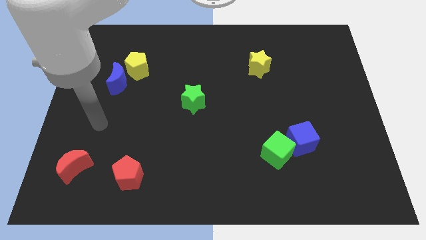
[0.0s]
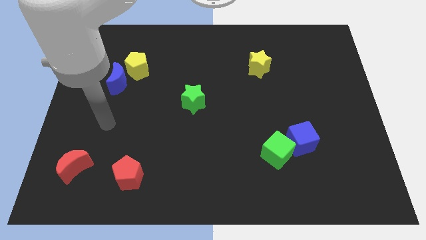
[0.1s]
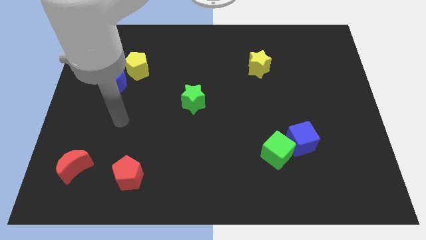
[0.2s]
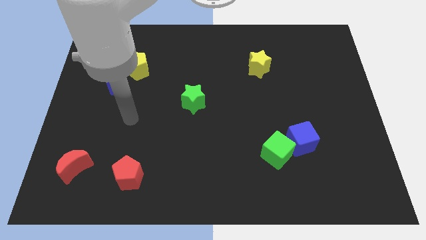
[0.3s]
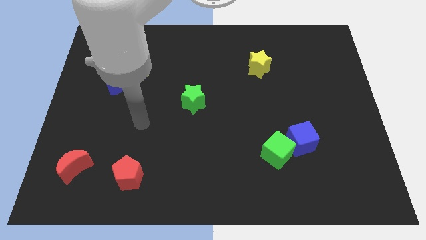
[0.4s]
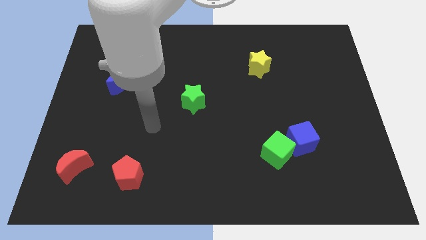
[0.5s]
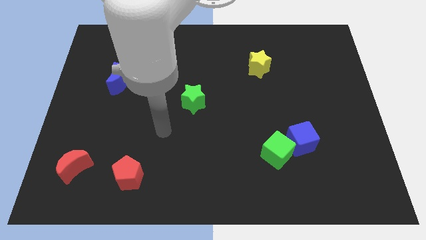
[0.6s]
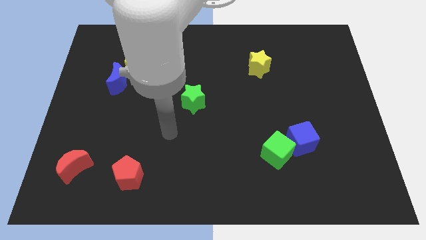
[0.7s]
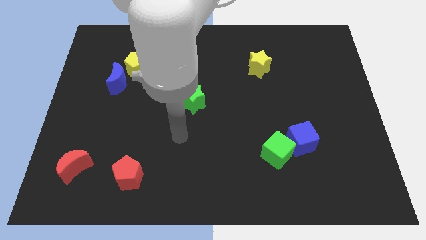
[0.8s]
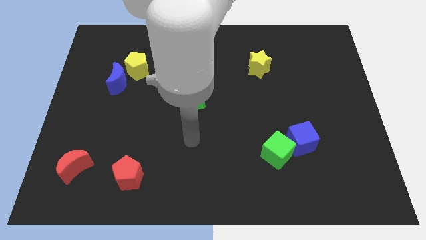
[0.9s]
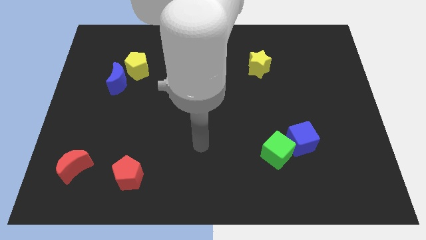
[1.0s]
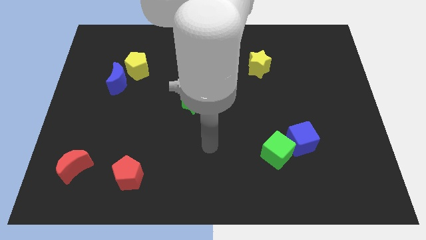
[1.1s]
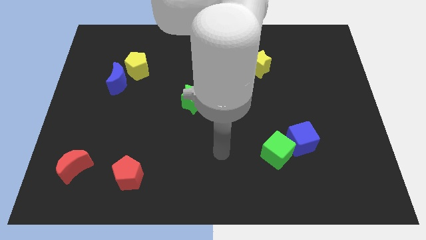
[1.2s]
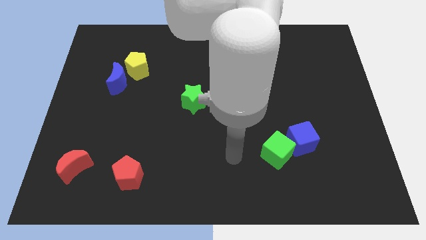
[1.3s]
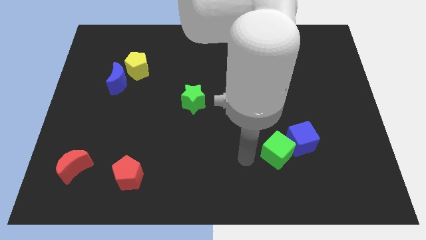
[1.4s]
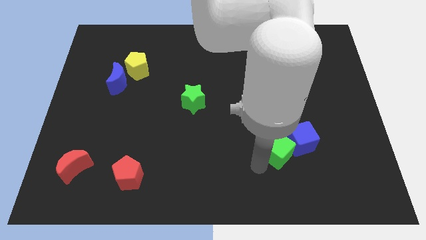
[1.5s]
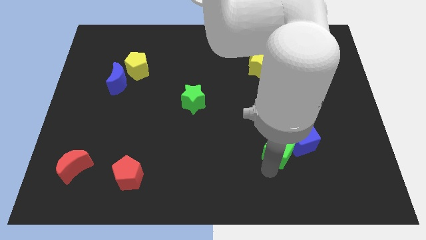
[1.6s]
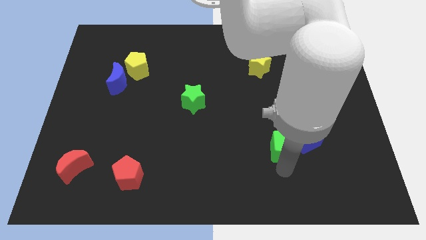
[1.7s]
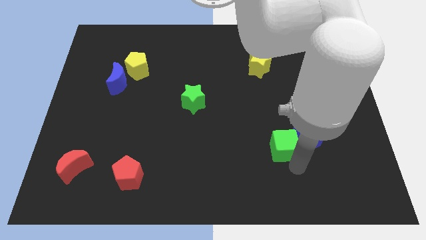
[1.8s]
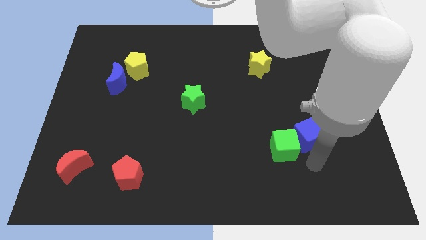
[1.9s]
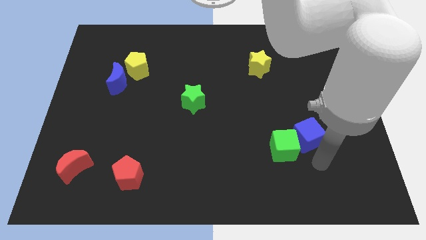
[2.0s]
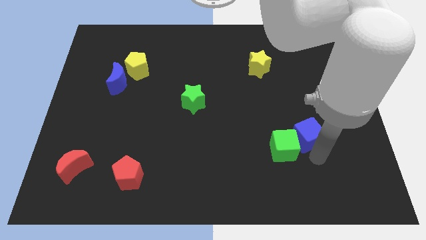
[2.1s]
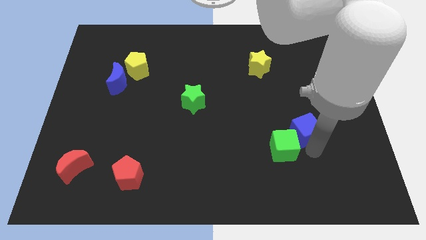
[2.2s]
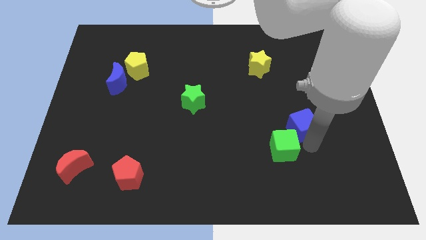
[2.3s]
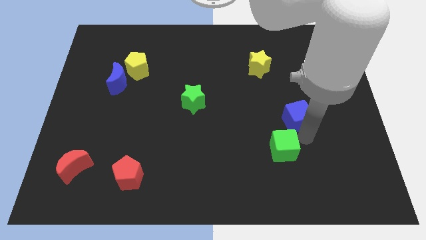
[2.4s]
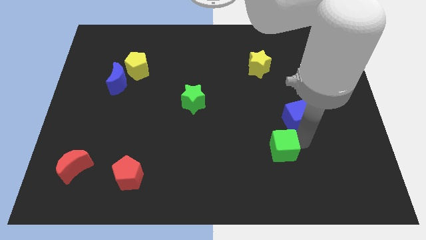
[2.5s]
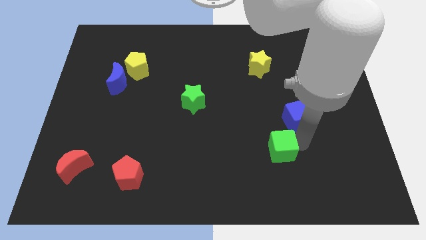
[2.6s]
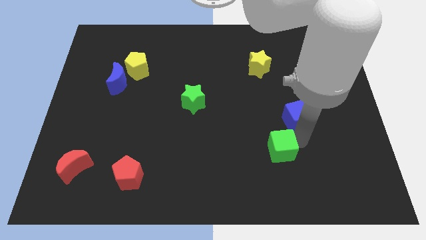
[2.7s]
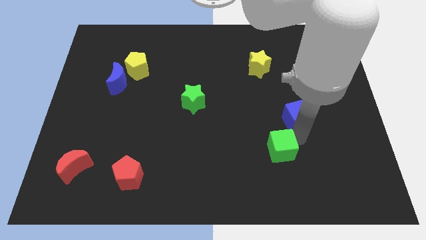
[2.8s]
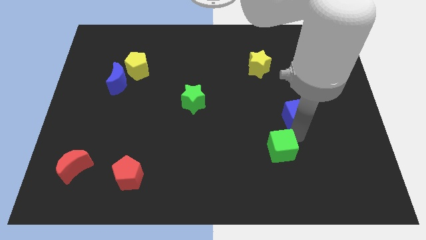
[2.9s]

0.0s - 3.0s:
move the blue cube up slightly

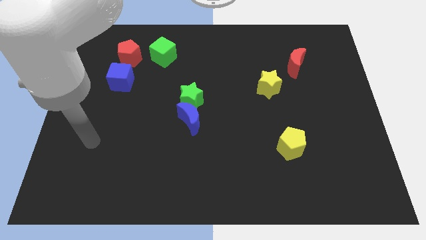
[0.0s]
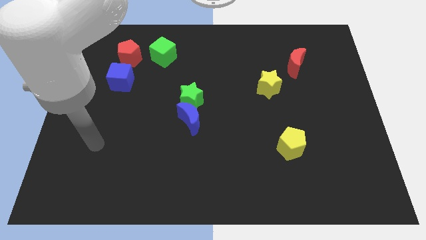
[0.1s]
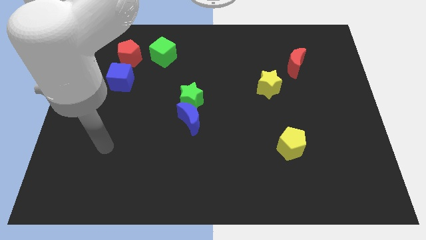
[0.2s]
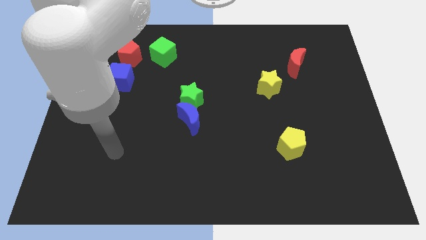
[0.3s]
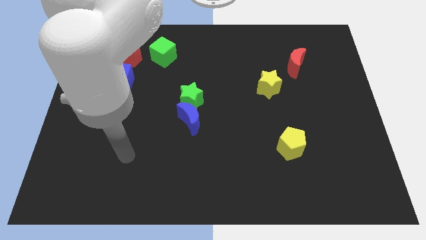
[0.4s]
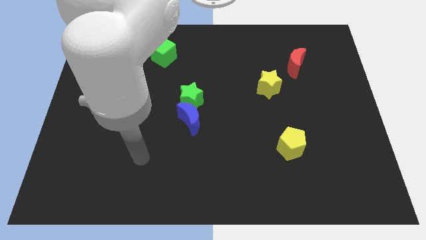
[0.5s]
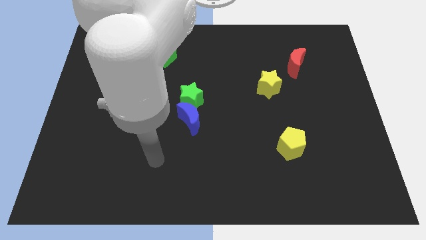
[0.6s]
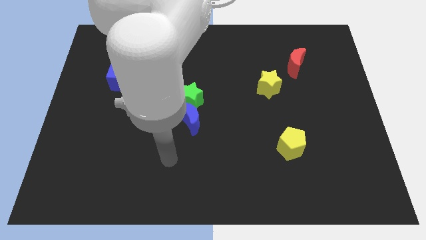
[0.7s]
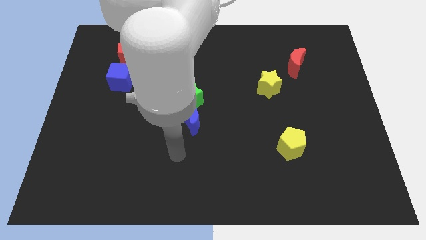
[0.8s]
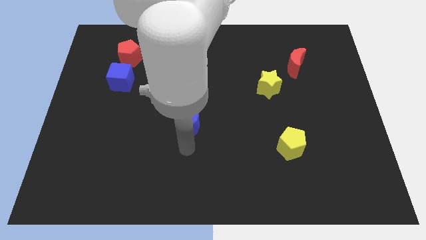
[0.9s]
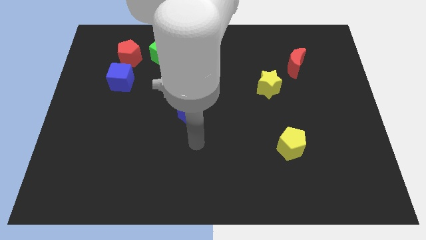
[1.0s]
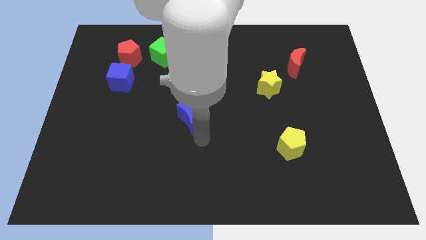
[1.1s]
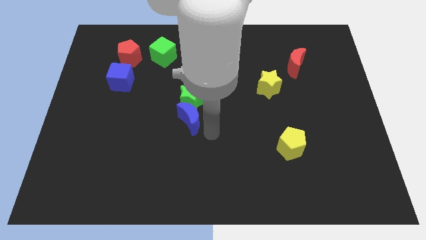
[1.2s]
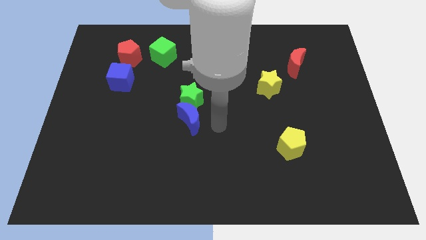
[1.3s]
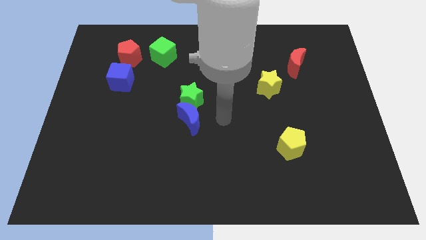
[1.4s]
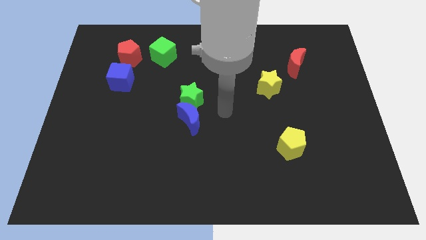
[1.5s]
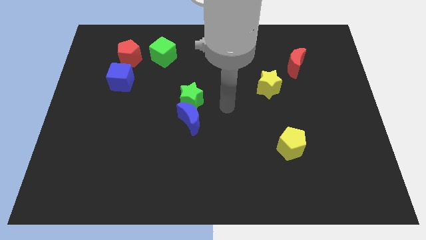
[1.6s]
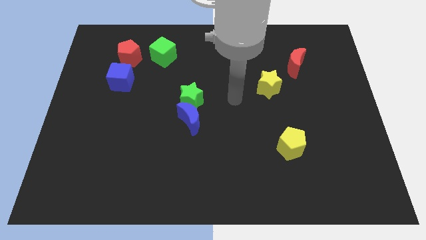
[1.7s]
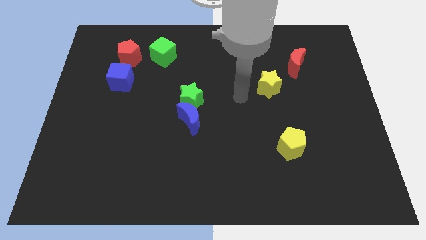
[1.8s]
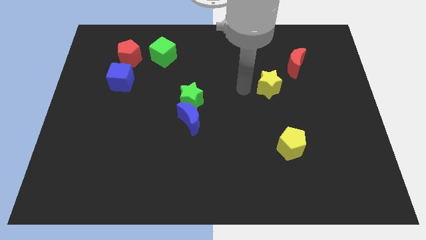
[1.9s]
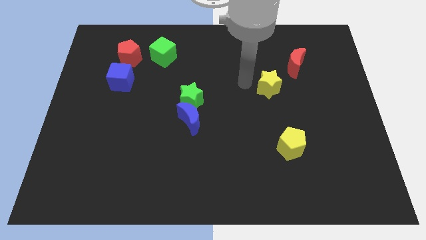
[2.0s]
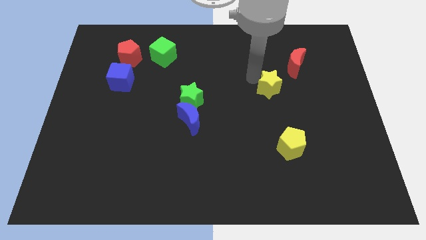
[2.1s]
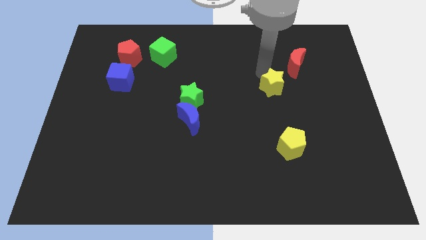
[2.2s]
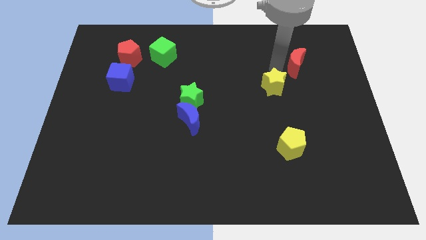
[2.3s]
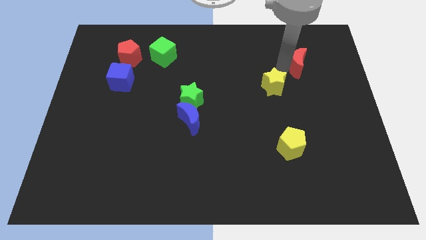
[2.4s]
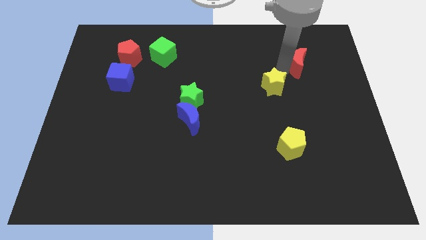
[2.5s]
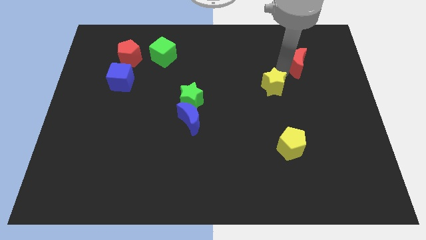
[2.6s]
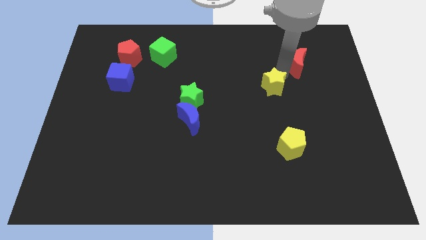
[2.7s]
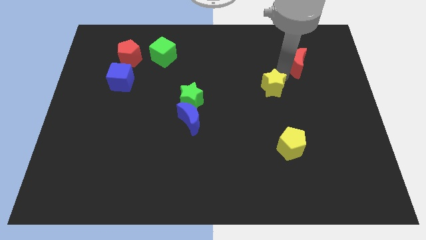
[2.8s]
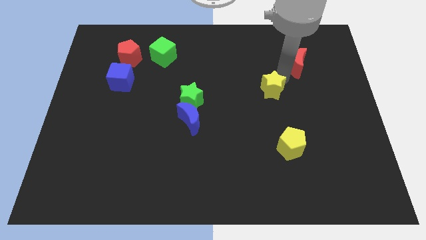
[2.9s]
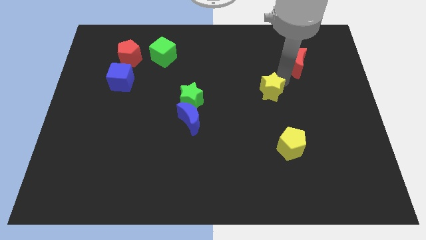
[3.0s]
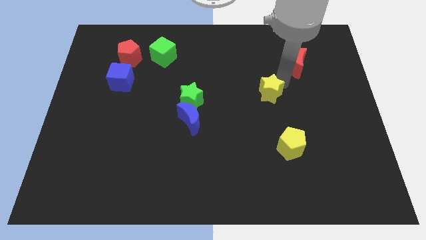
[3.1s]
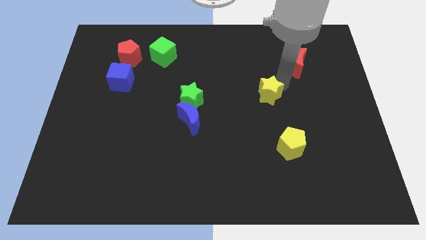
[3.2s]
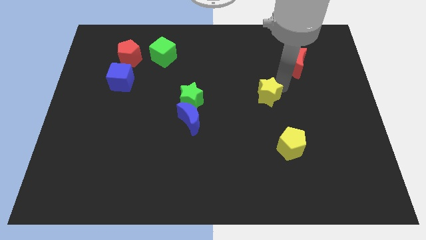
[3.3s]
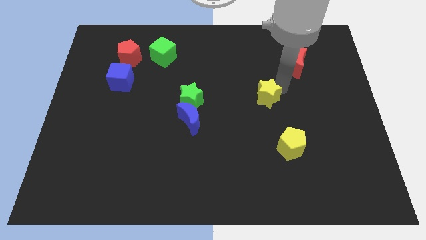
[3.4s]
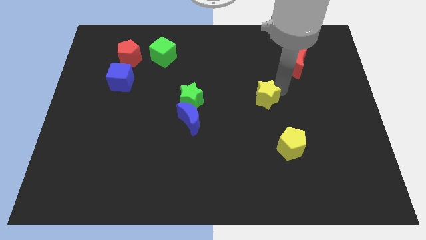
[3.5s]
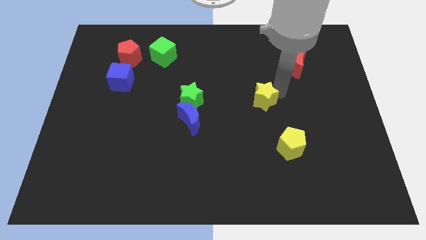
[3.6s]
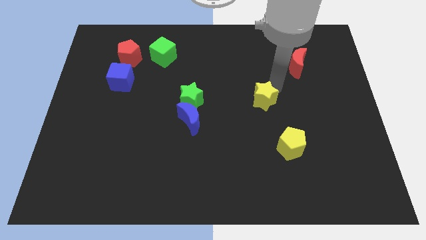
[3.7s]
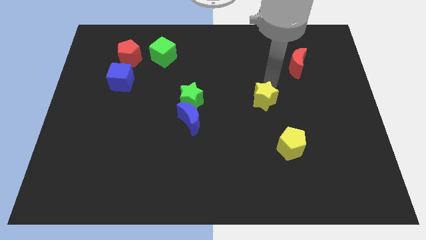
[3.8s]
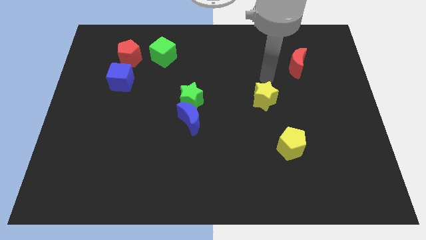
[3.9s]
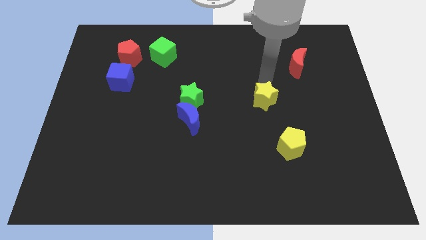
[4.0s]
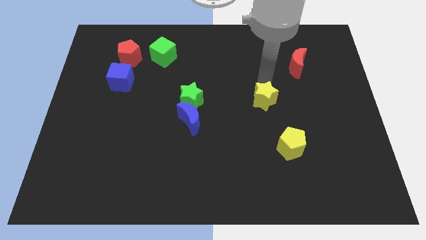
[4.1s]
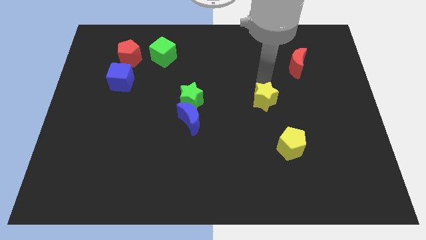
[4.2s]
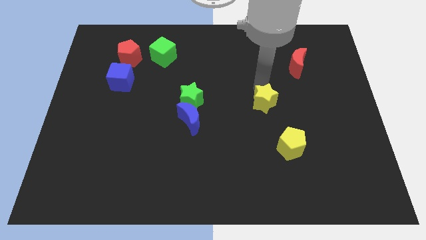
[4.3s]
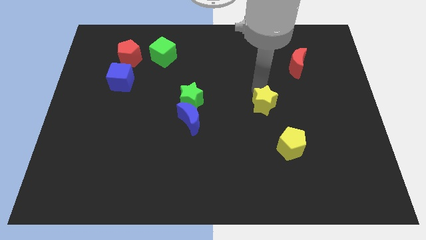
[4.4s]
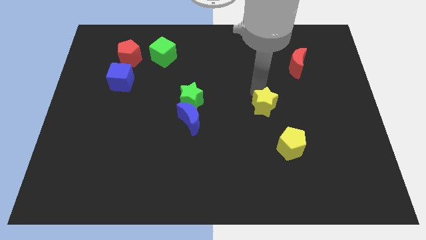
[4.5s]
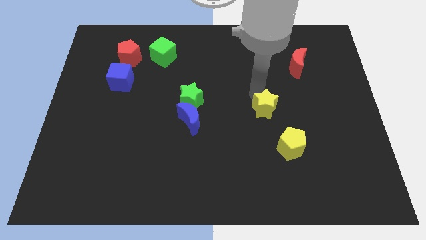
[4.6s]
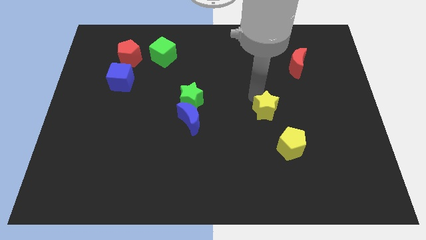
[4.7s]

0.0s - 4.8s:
push the yellow star a bit down
